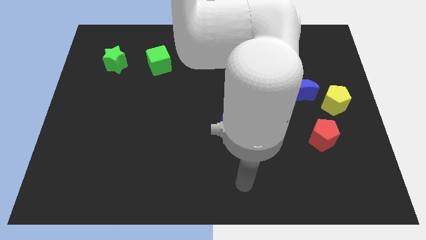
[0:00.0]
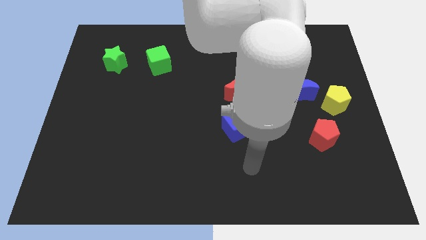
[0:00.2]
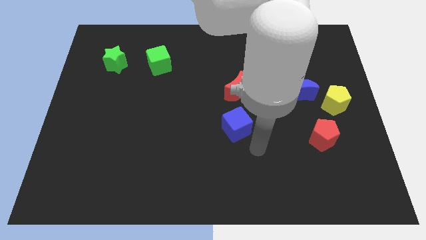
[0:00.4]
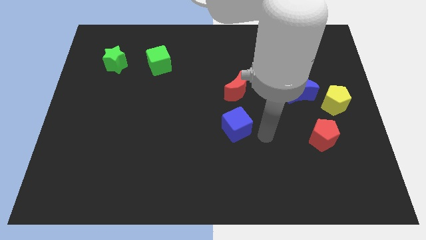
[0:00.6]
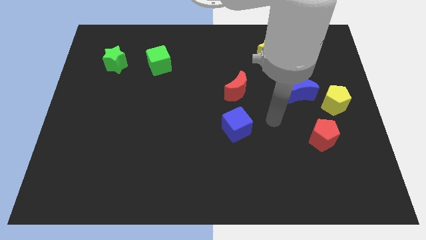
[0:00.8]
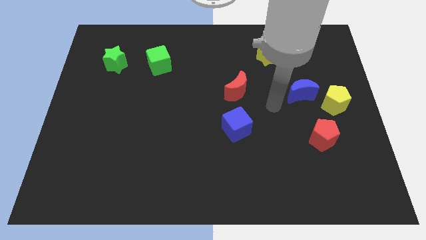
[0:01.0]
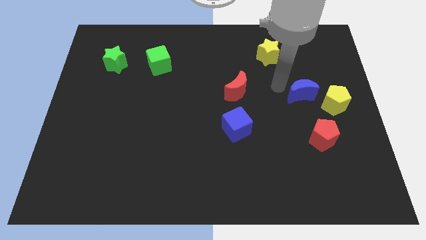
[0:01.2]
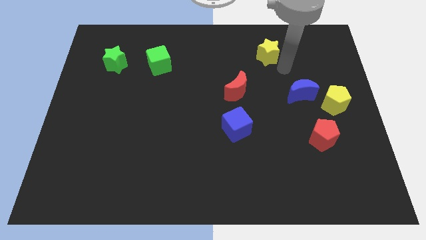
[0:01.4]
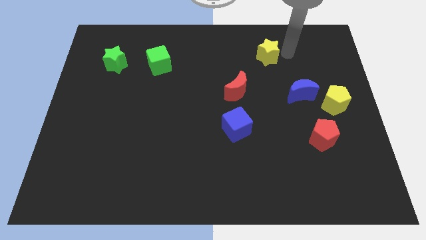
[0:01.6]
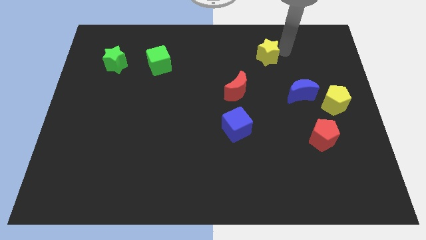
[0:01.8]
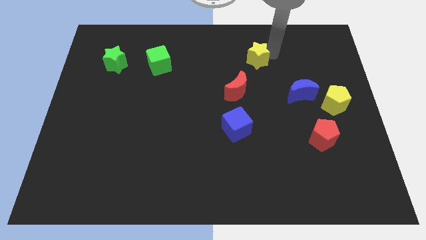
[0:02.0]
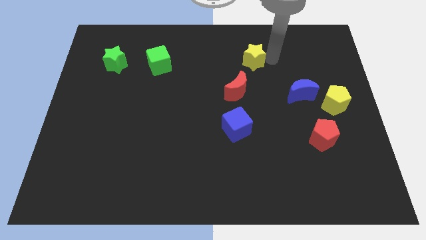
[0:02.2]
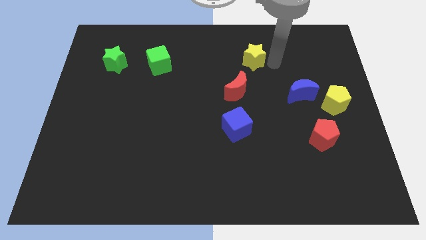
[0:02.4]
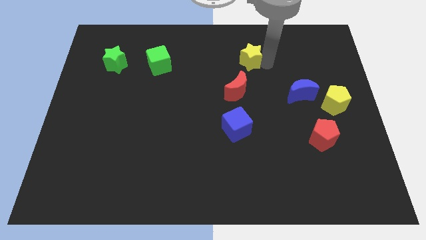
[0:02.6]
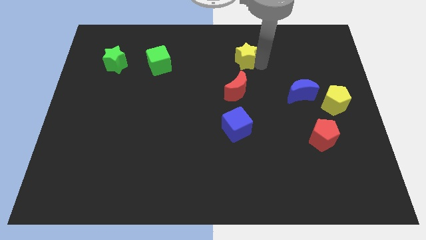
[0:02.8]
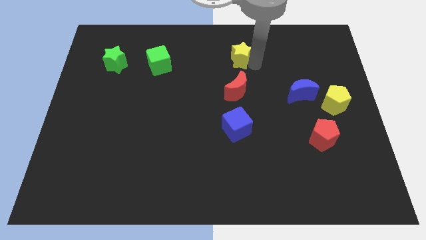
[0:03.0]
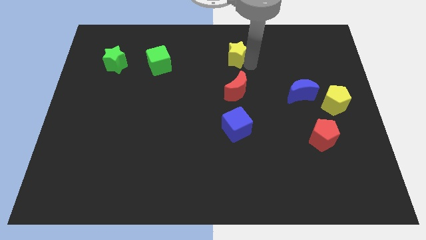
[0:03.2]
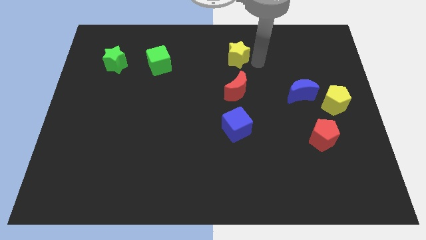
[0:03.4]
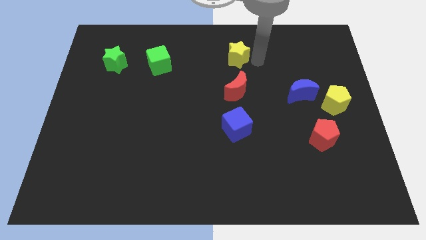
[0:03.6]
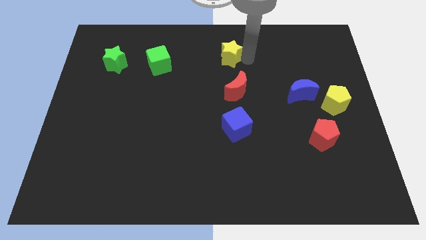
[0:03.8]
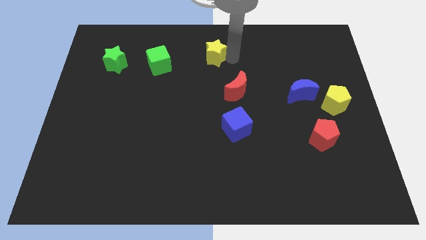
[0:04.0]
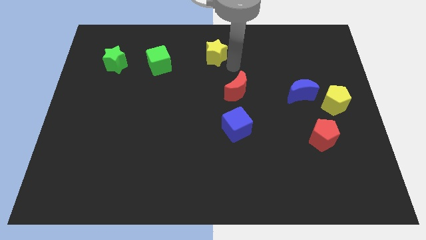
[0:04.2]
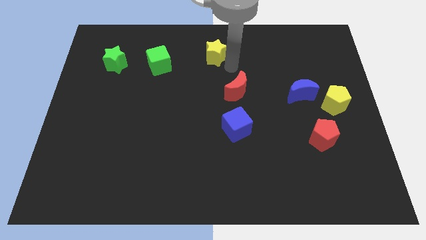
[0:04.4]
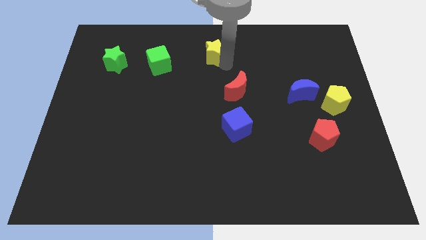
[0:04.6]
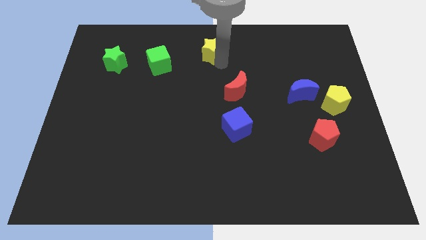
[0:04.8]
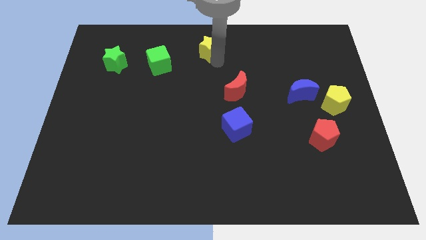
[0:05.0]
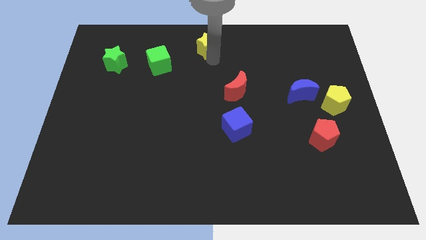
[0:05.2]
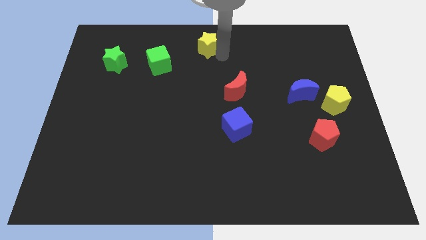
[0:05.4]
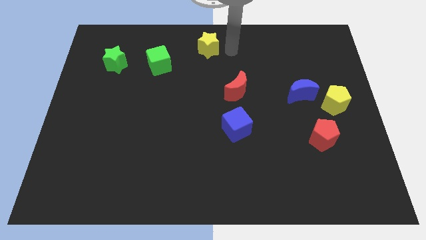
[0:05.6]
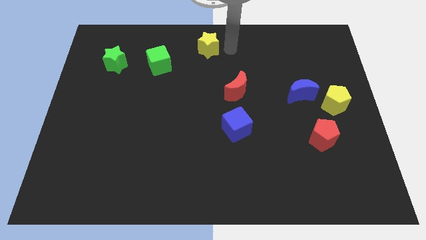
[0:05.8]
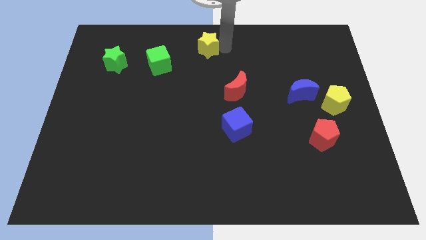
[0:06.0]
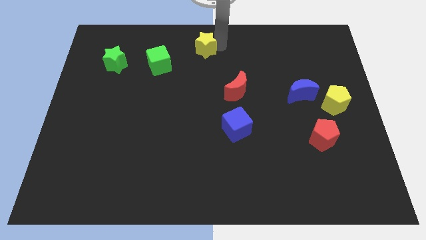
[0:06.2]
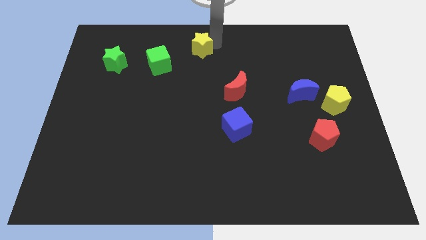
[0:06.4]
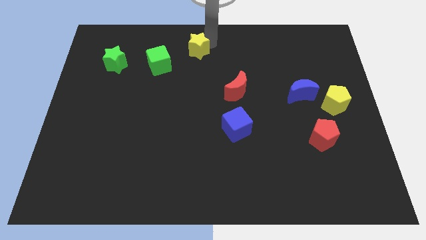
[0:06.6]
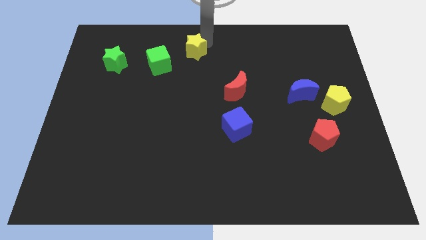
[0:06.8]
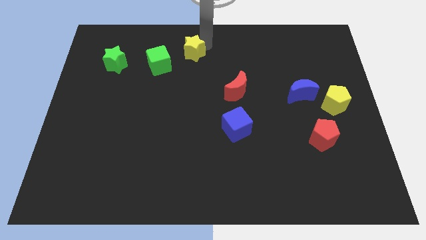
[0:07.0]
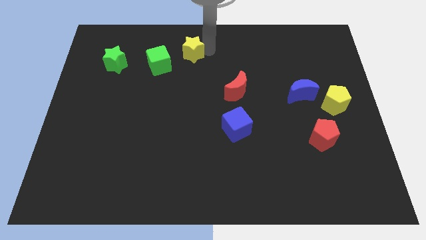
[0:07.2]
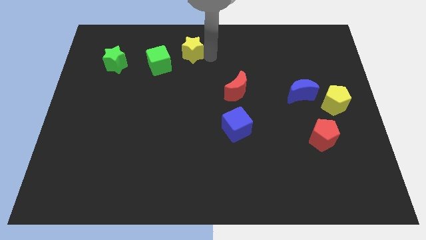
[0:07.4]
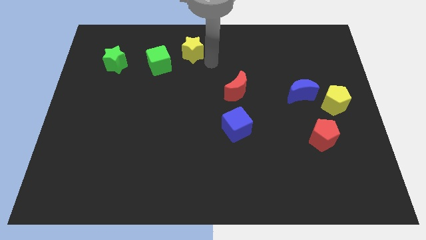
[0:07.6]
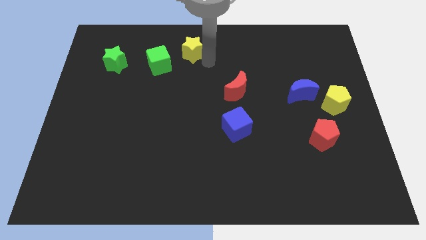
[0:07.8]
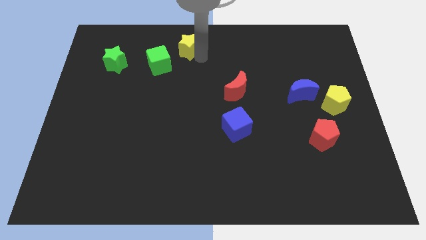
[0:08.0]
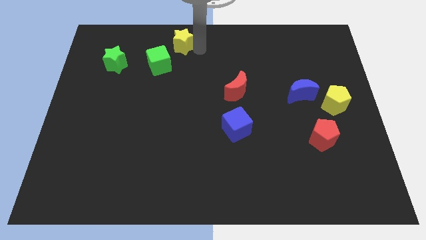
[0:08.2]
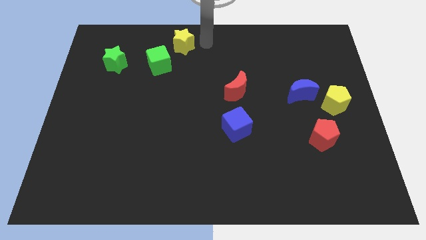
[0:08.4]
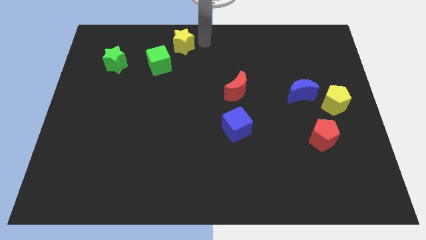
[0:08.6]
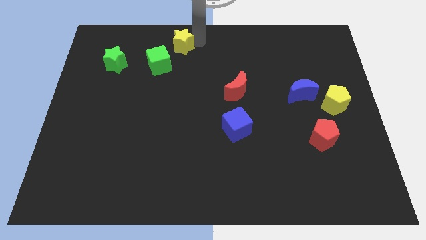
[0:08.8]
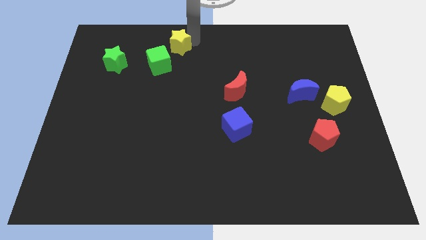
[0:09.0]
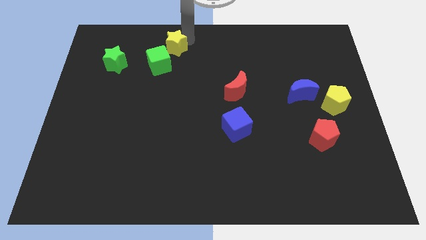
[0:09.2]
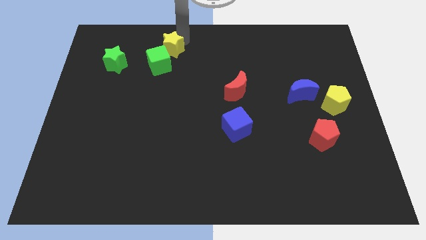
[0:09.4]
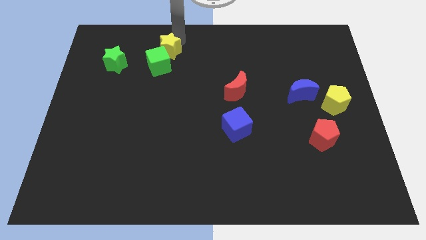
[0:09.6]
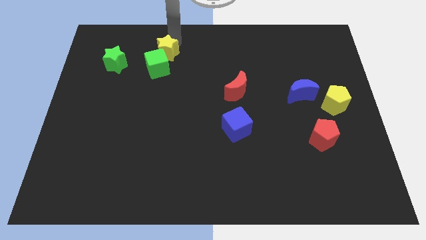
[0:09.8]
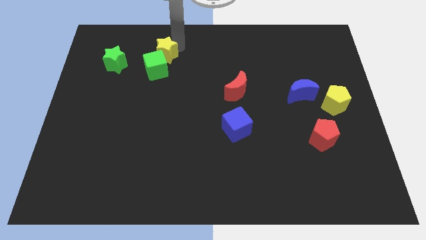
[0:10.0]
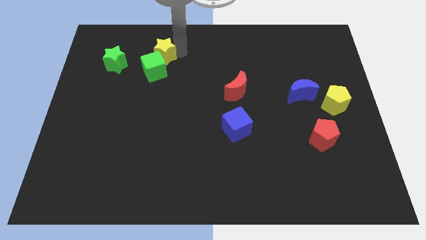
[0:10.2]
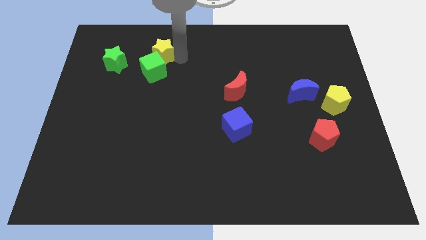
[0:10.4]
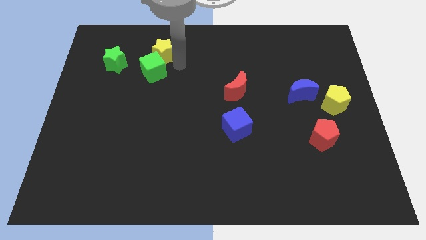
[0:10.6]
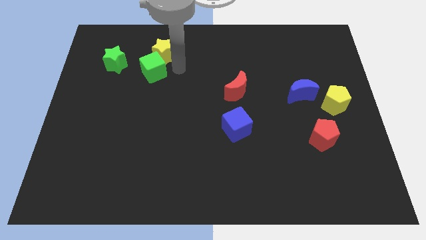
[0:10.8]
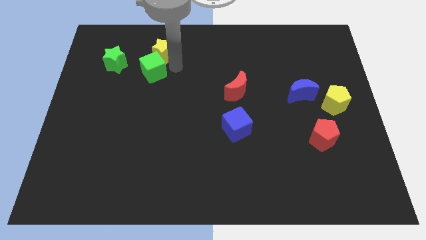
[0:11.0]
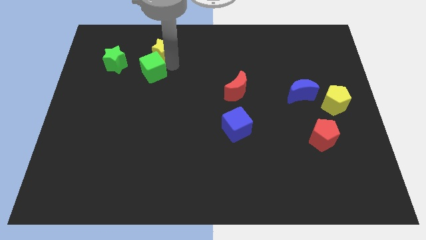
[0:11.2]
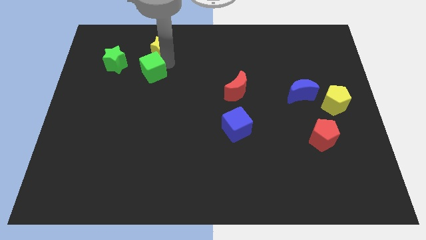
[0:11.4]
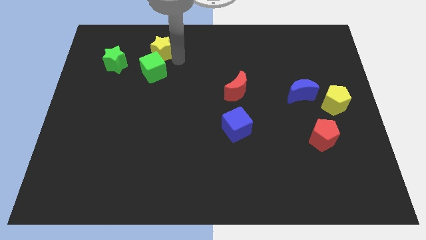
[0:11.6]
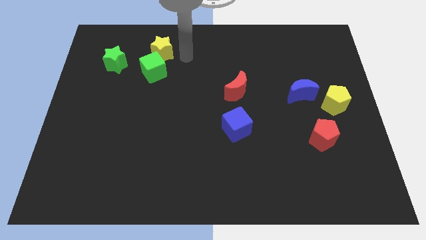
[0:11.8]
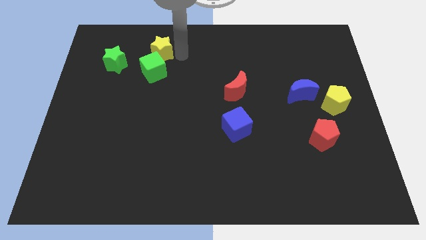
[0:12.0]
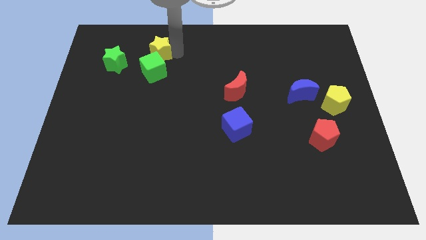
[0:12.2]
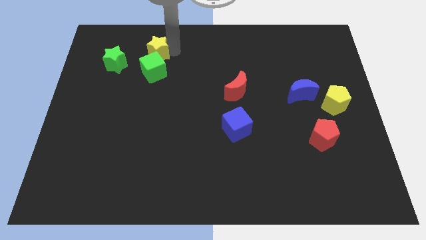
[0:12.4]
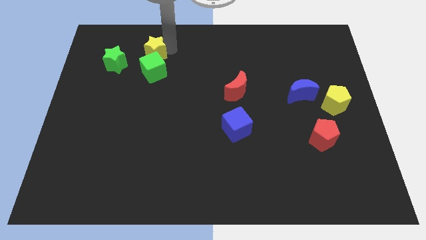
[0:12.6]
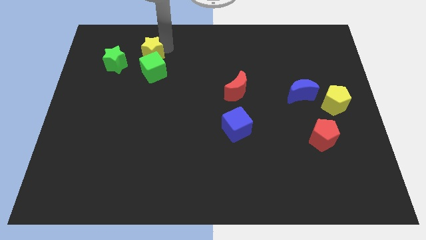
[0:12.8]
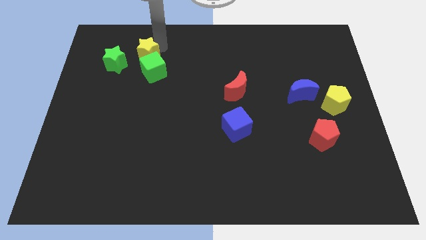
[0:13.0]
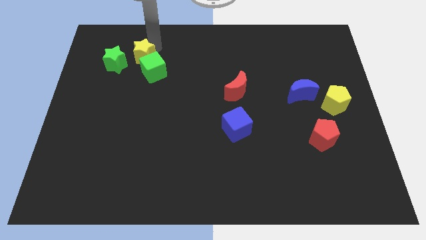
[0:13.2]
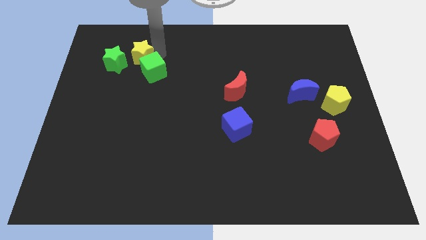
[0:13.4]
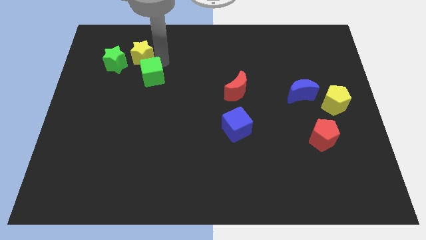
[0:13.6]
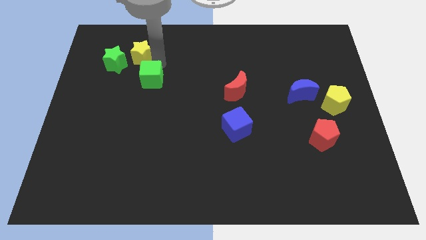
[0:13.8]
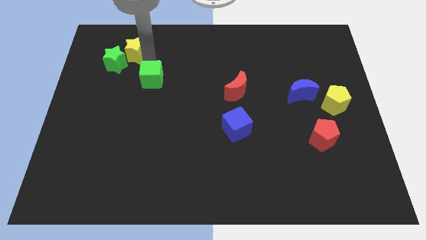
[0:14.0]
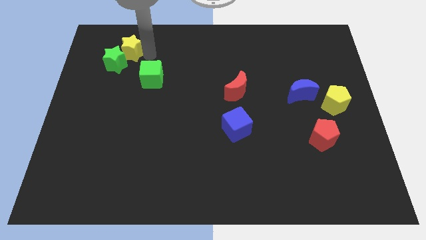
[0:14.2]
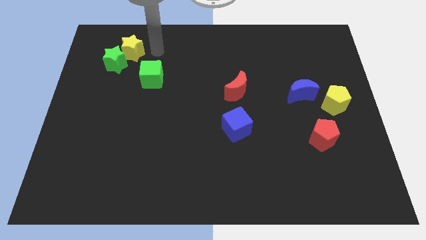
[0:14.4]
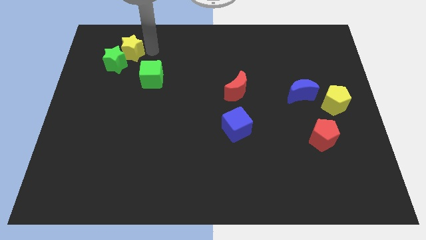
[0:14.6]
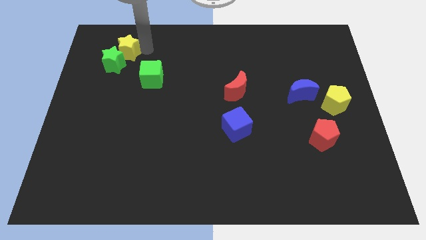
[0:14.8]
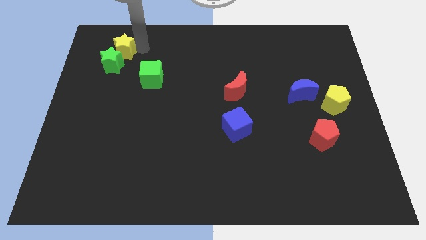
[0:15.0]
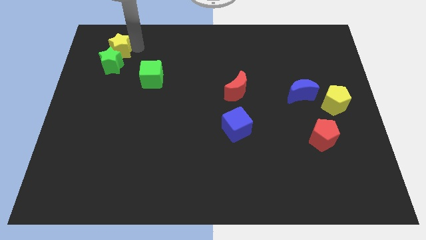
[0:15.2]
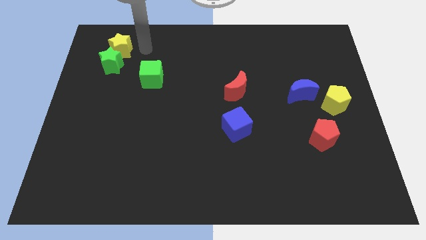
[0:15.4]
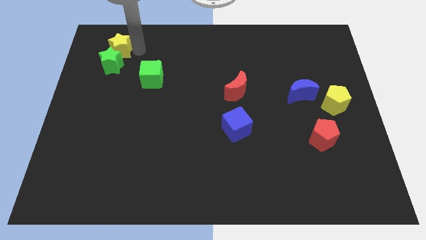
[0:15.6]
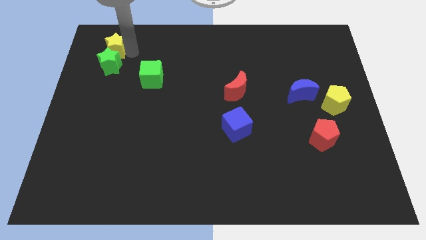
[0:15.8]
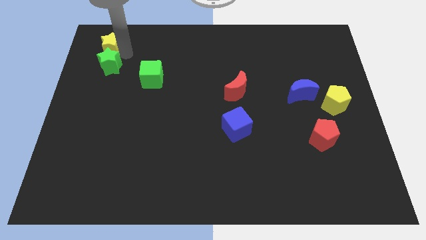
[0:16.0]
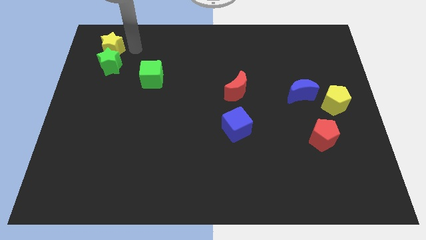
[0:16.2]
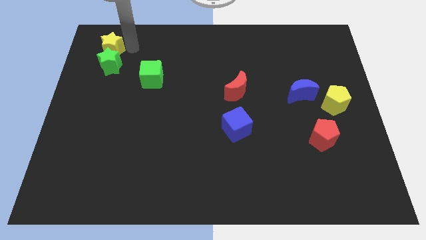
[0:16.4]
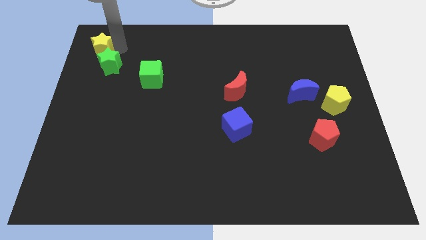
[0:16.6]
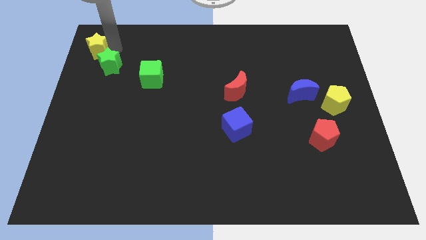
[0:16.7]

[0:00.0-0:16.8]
move the yellow star to the top left
